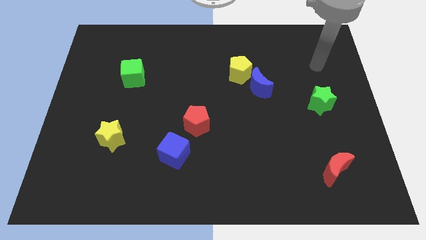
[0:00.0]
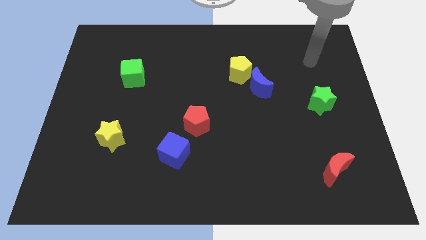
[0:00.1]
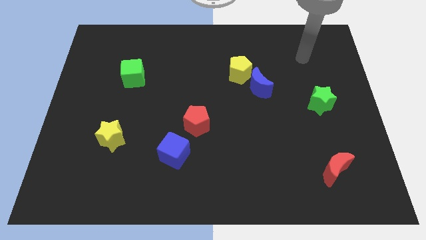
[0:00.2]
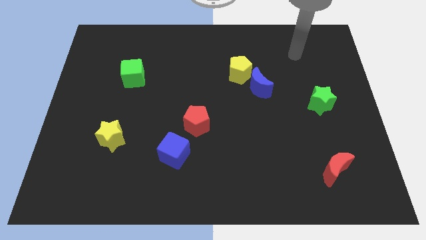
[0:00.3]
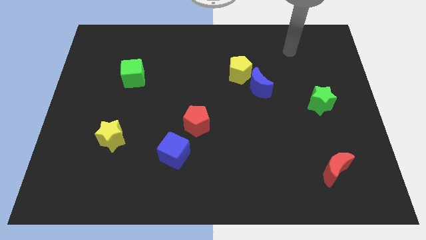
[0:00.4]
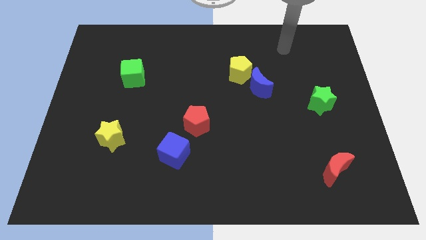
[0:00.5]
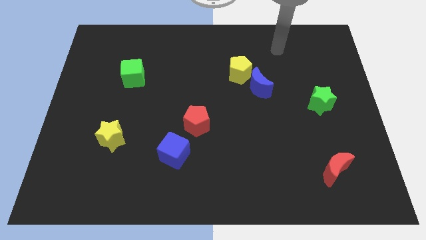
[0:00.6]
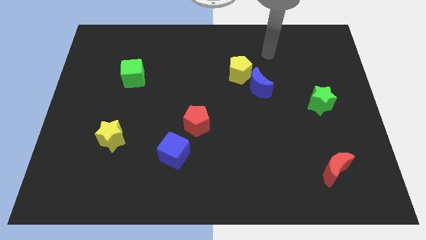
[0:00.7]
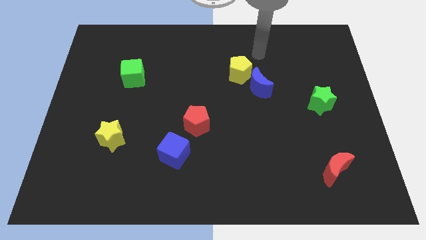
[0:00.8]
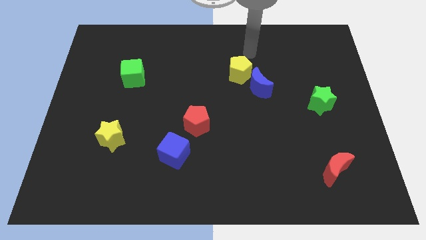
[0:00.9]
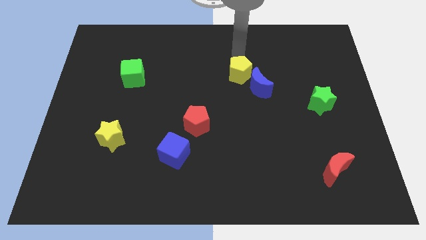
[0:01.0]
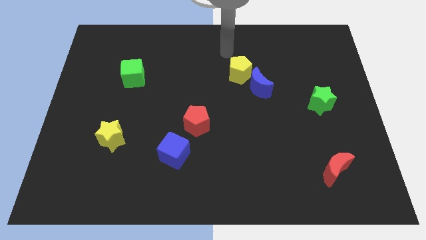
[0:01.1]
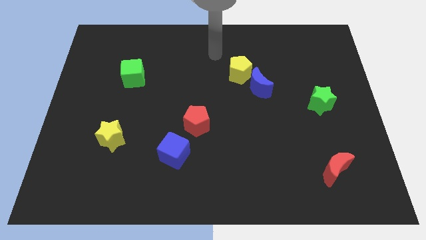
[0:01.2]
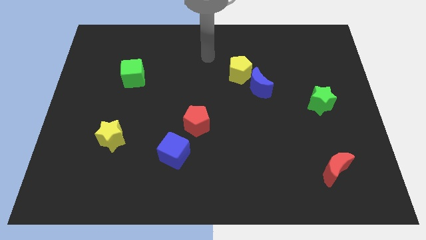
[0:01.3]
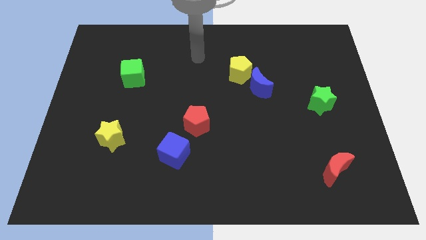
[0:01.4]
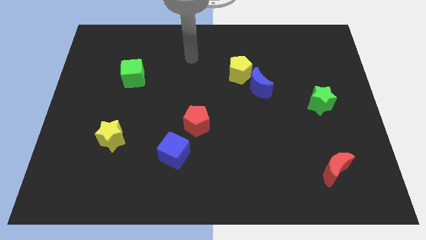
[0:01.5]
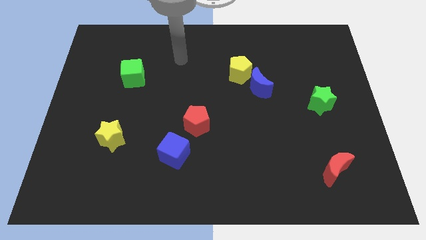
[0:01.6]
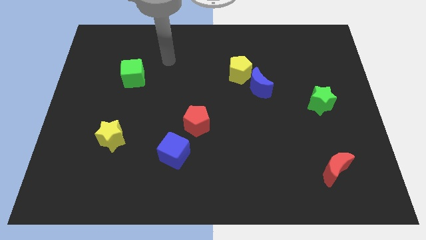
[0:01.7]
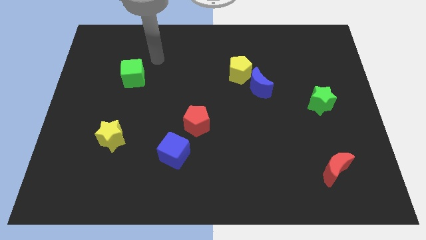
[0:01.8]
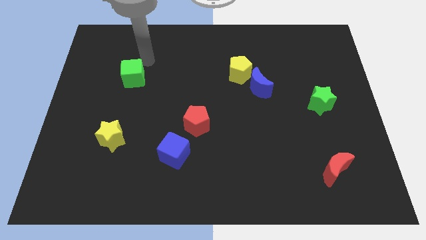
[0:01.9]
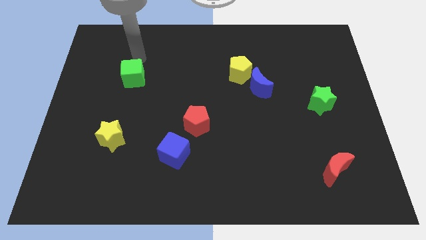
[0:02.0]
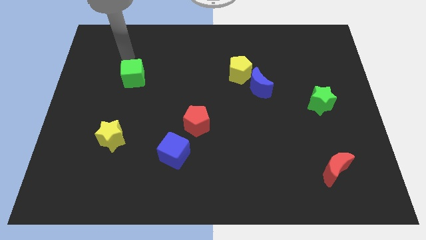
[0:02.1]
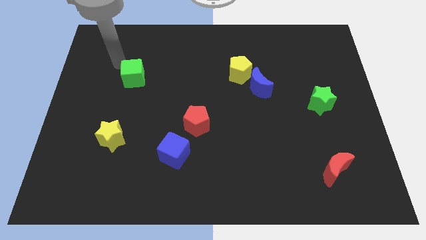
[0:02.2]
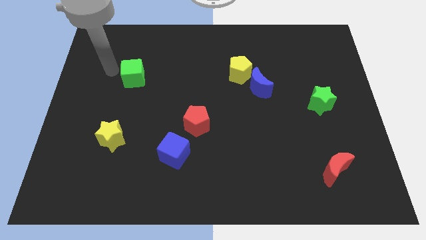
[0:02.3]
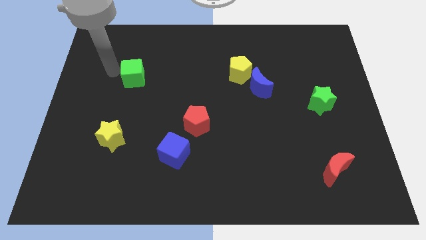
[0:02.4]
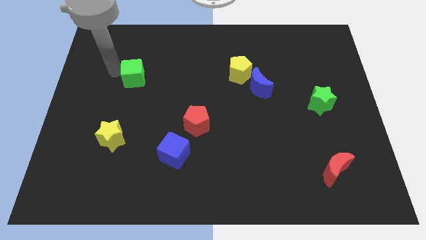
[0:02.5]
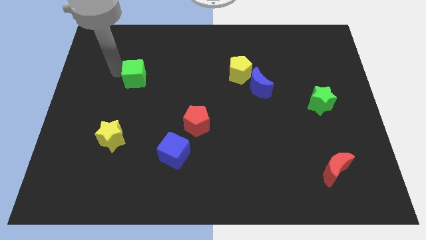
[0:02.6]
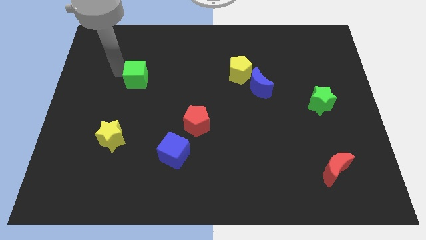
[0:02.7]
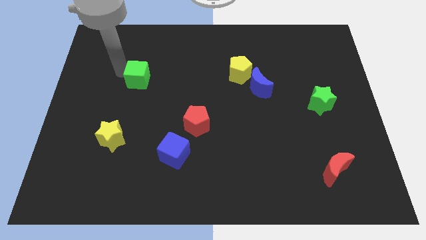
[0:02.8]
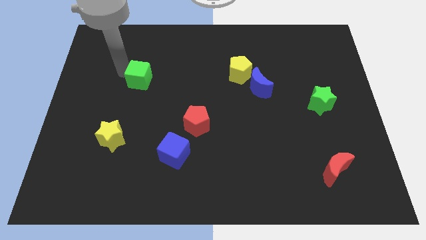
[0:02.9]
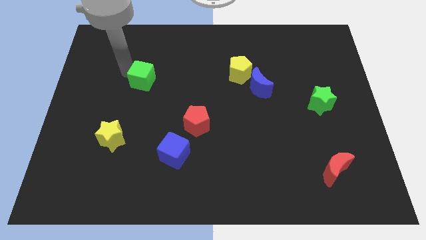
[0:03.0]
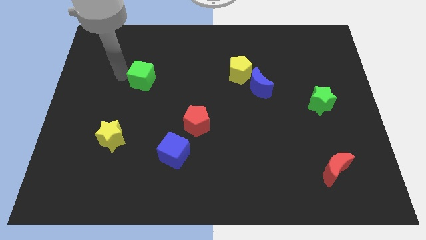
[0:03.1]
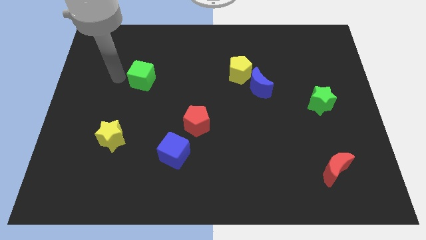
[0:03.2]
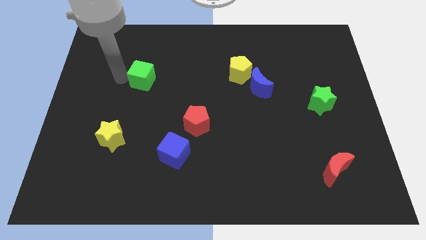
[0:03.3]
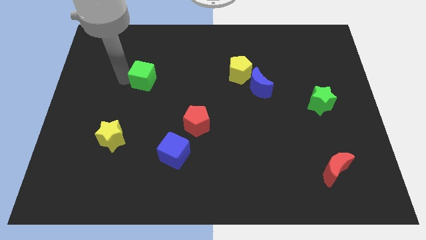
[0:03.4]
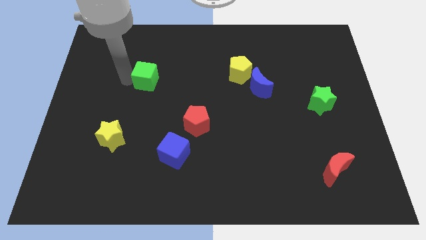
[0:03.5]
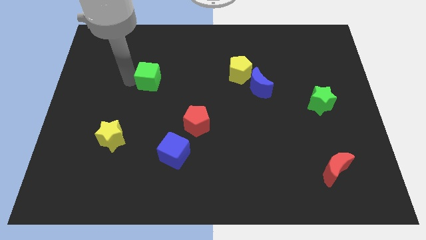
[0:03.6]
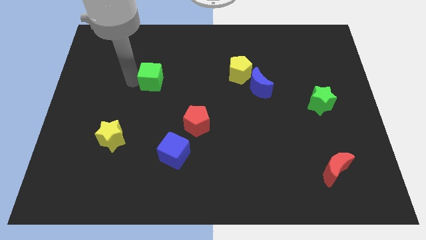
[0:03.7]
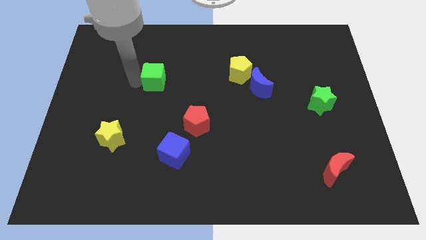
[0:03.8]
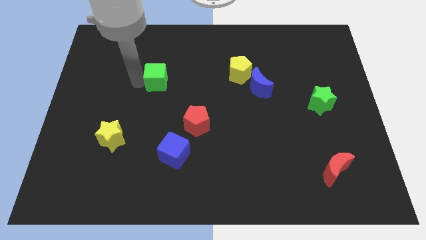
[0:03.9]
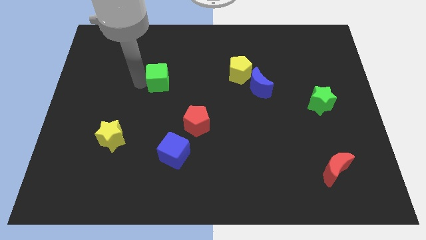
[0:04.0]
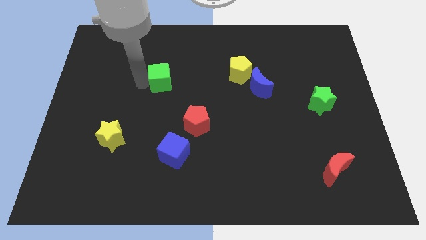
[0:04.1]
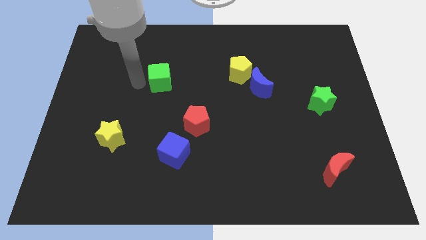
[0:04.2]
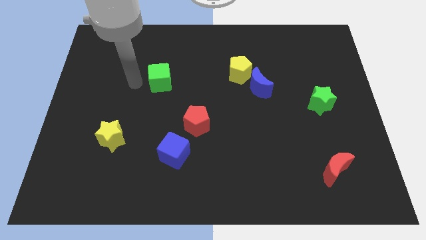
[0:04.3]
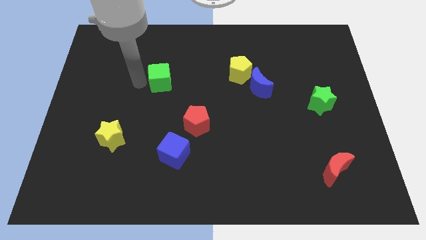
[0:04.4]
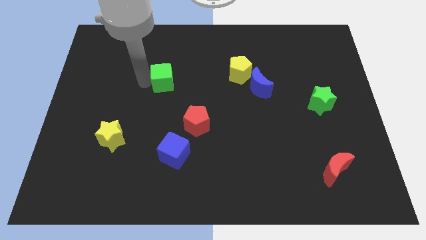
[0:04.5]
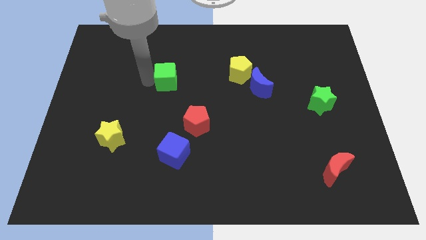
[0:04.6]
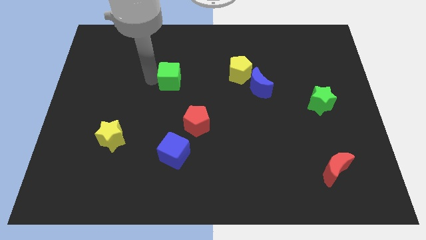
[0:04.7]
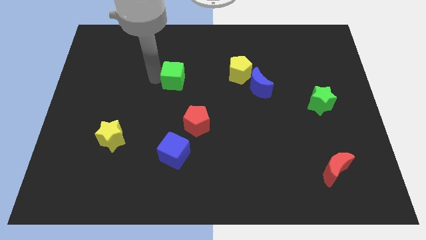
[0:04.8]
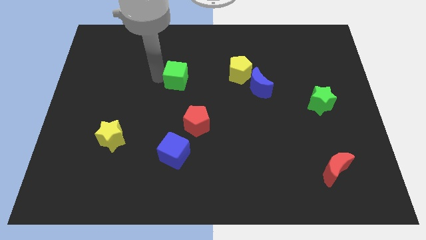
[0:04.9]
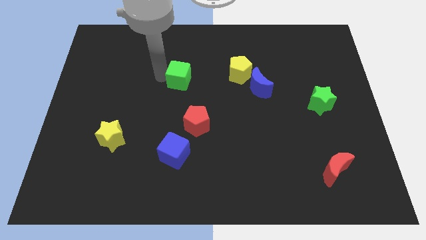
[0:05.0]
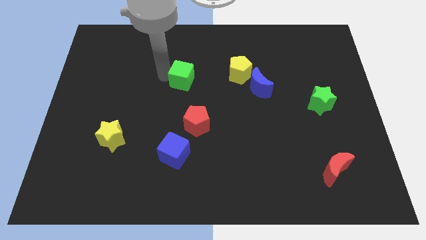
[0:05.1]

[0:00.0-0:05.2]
slide the green cube to the top of the red pentagon

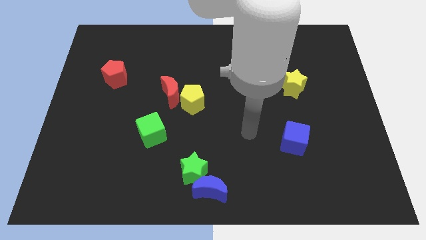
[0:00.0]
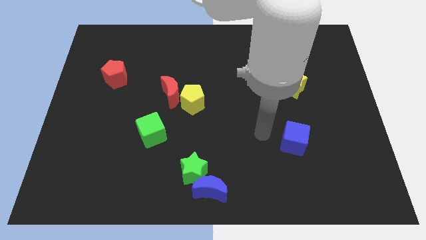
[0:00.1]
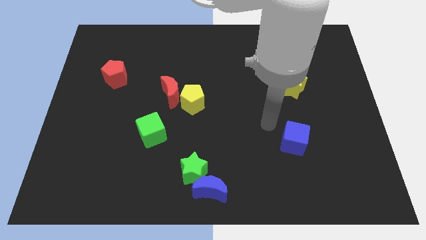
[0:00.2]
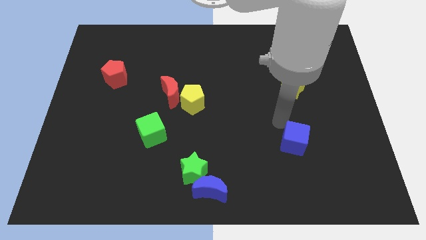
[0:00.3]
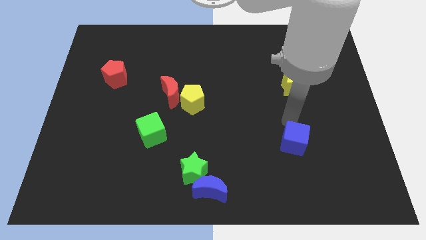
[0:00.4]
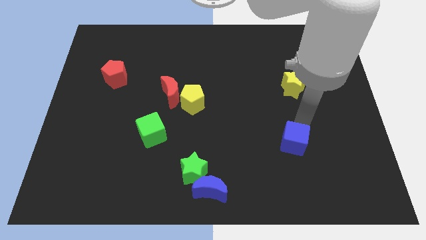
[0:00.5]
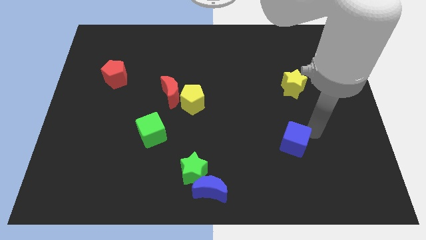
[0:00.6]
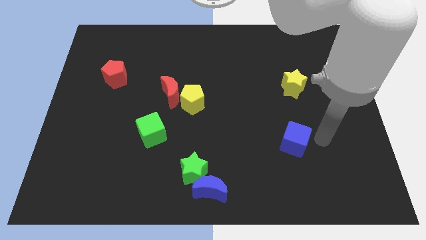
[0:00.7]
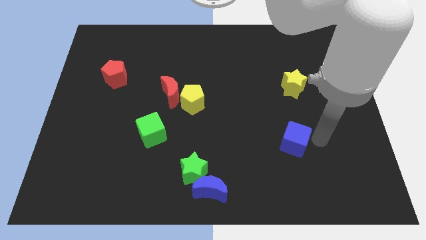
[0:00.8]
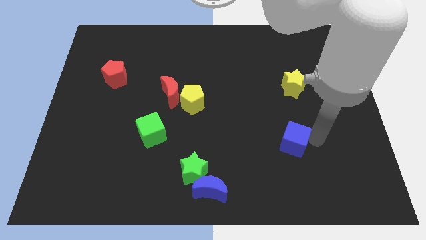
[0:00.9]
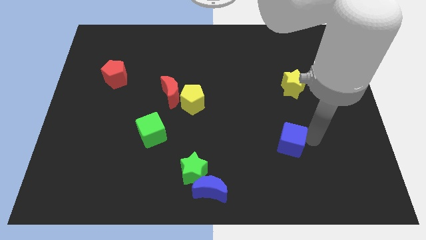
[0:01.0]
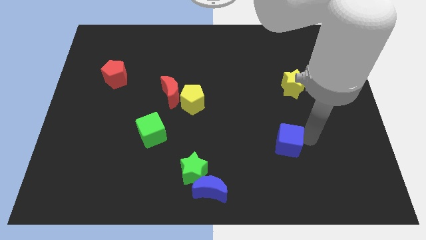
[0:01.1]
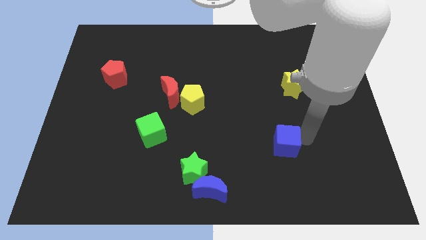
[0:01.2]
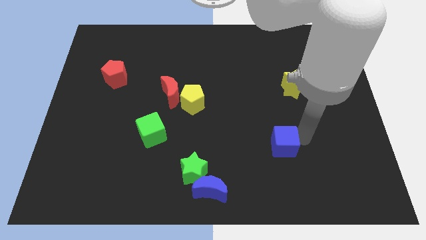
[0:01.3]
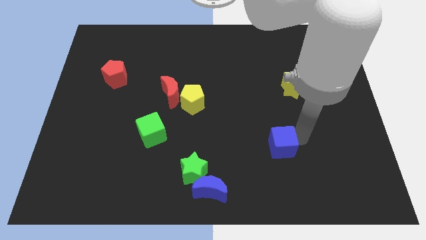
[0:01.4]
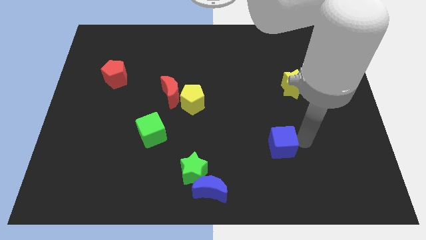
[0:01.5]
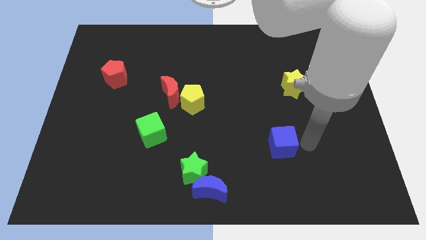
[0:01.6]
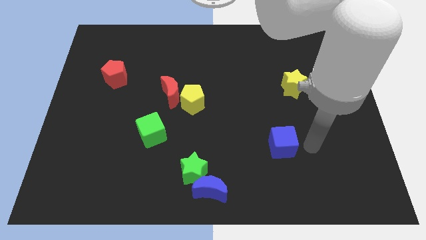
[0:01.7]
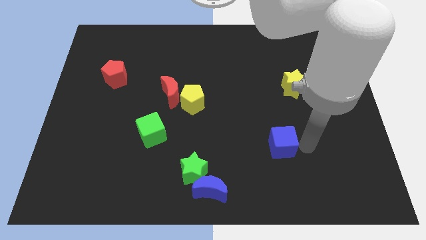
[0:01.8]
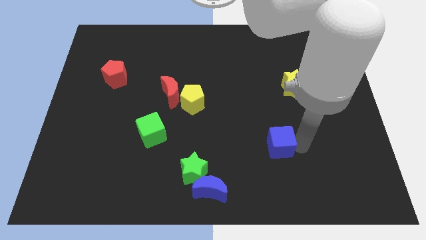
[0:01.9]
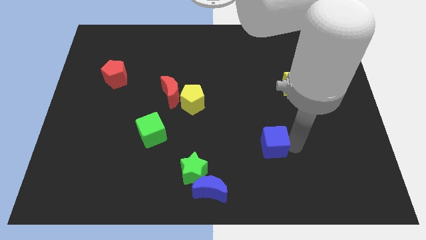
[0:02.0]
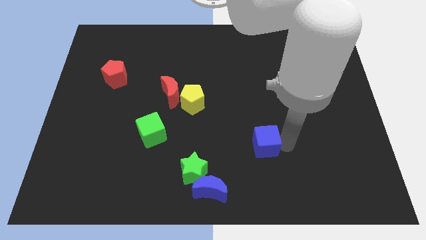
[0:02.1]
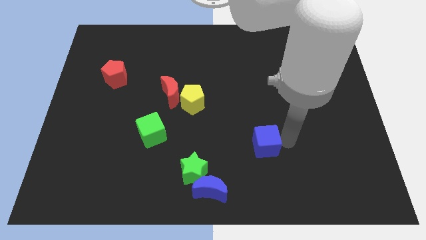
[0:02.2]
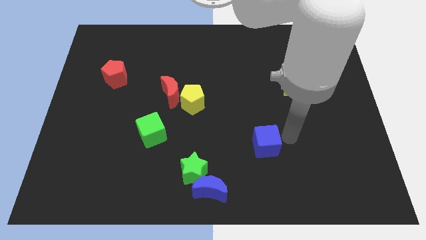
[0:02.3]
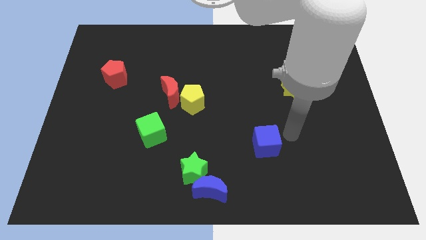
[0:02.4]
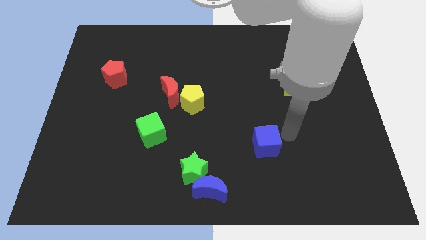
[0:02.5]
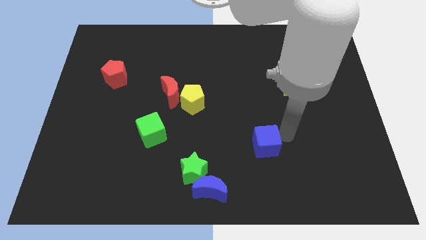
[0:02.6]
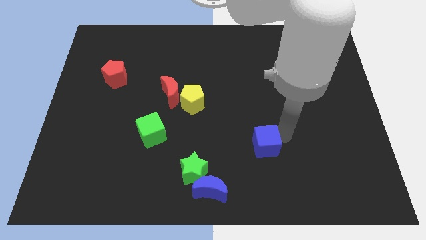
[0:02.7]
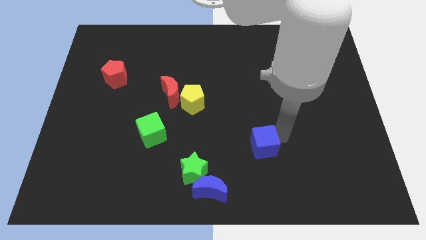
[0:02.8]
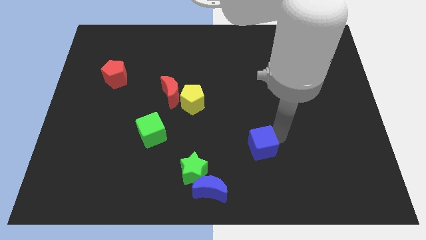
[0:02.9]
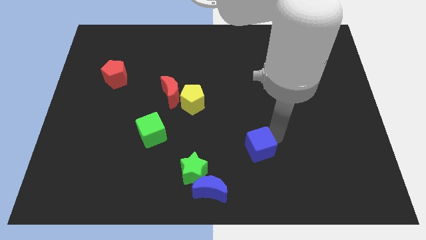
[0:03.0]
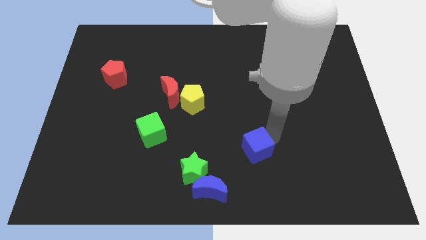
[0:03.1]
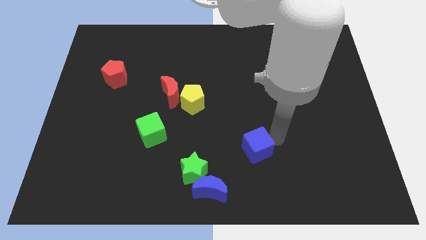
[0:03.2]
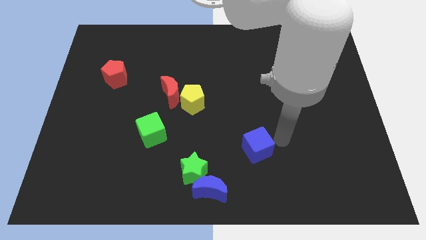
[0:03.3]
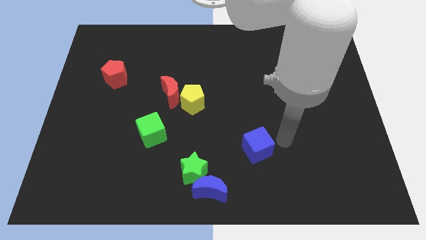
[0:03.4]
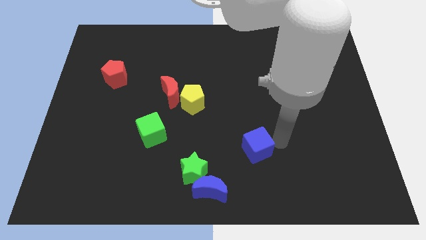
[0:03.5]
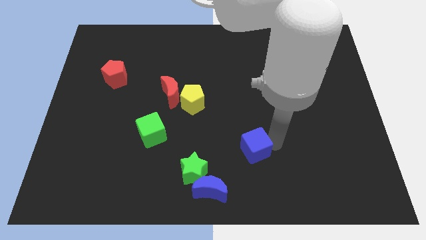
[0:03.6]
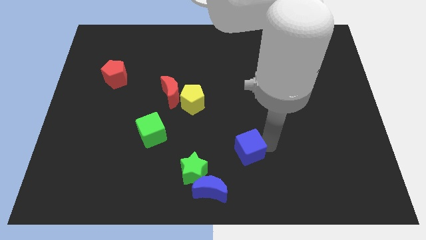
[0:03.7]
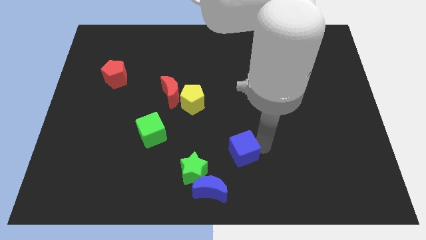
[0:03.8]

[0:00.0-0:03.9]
move the blue cube to the top right of the green star
